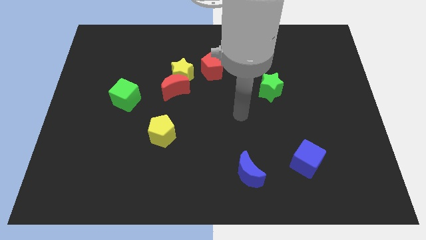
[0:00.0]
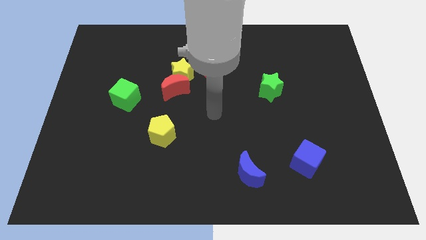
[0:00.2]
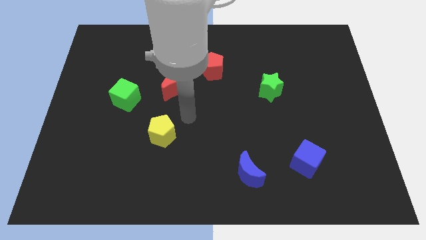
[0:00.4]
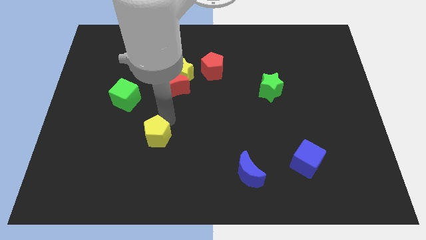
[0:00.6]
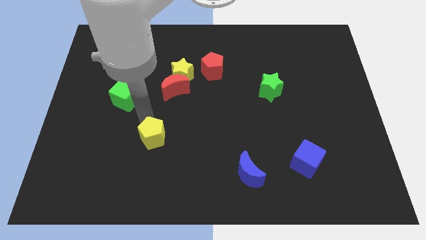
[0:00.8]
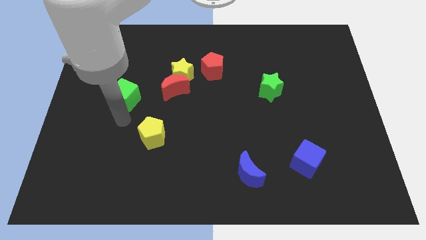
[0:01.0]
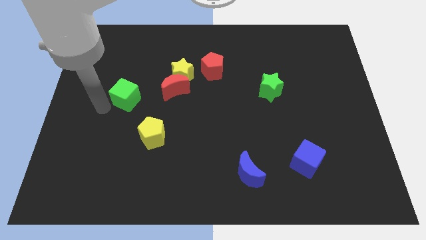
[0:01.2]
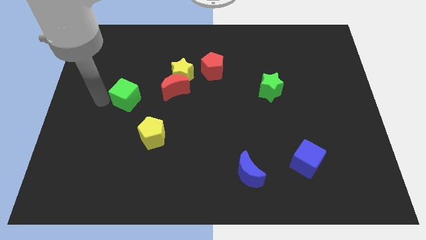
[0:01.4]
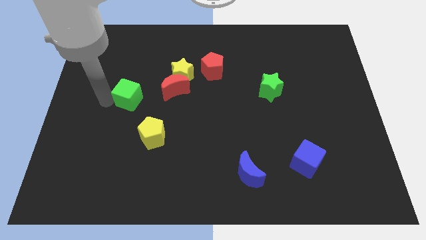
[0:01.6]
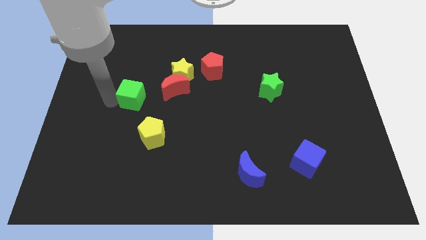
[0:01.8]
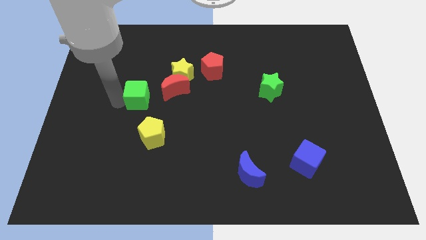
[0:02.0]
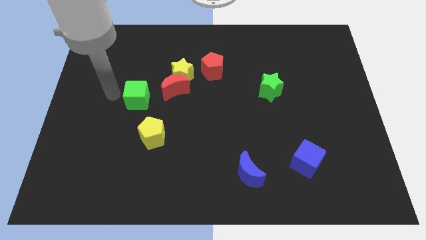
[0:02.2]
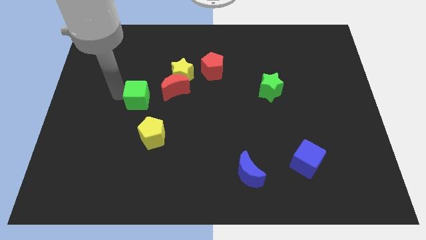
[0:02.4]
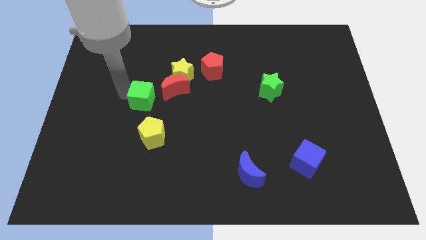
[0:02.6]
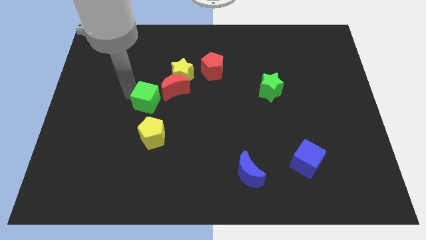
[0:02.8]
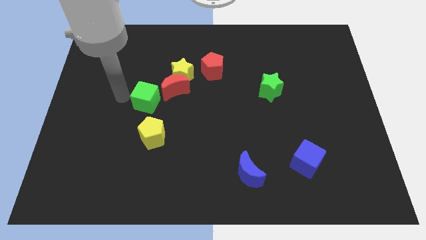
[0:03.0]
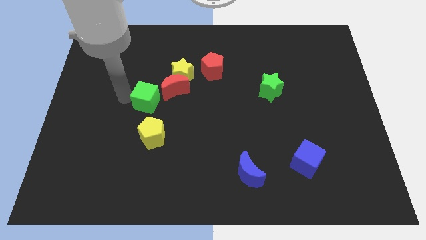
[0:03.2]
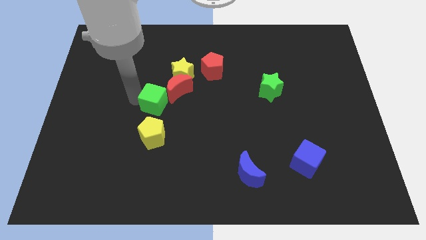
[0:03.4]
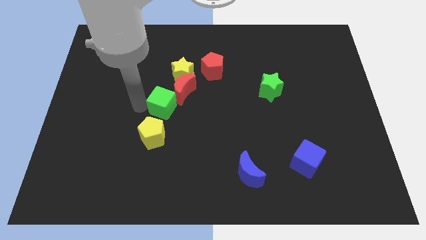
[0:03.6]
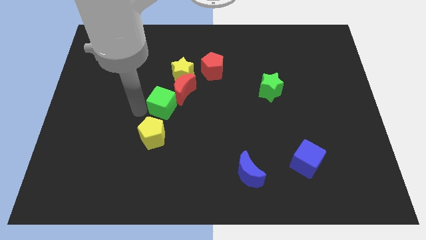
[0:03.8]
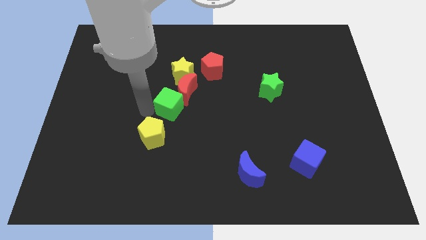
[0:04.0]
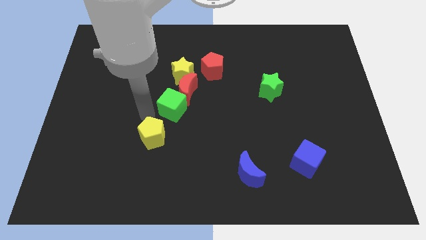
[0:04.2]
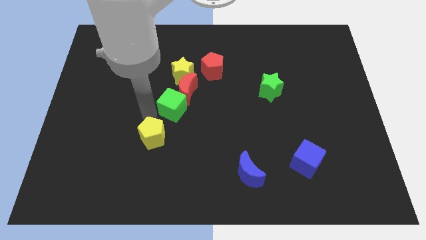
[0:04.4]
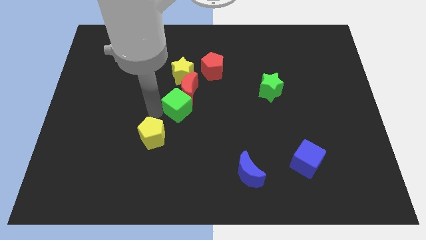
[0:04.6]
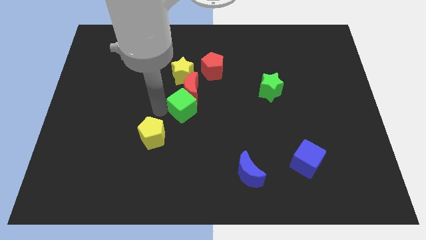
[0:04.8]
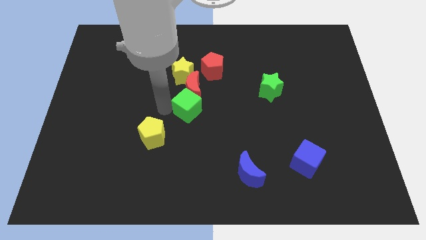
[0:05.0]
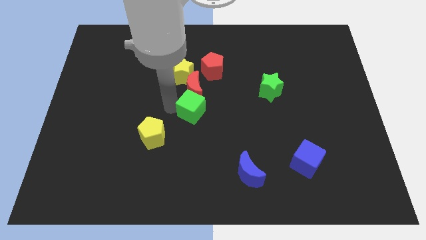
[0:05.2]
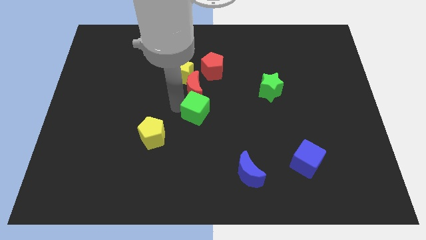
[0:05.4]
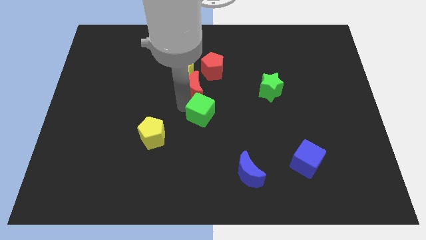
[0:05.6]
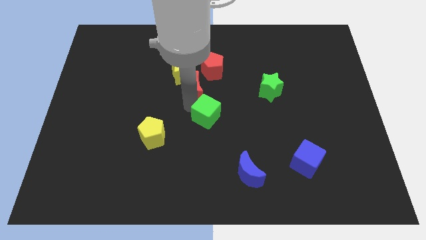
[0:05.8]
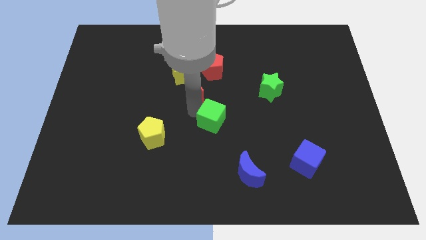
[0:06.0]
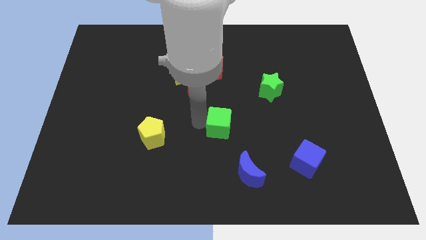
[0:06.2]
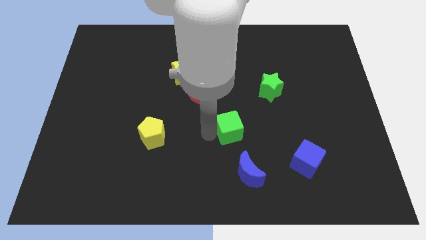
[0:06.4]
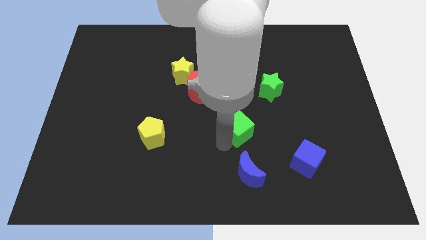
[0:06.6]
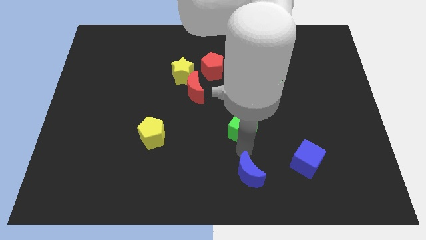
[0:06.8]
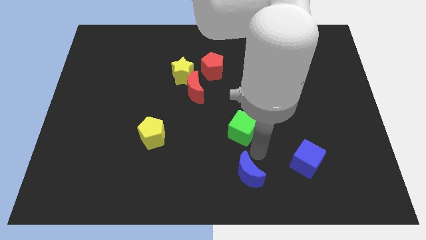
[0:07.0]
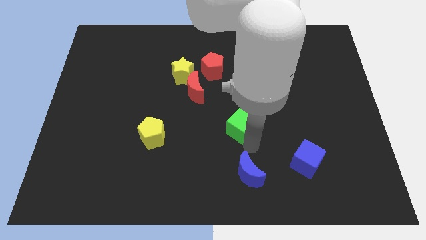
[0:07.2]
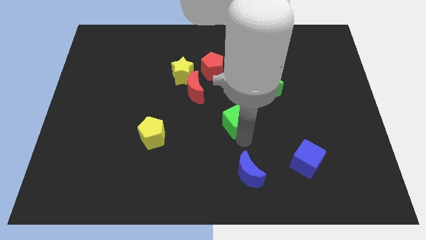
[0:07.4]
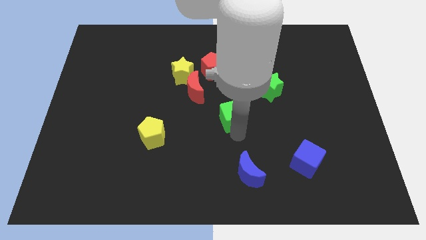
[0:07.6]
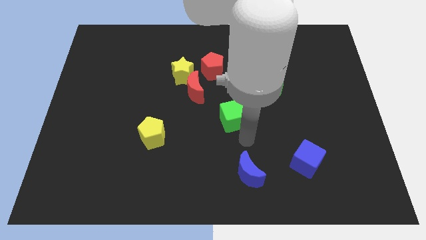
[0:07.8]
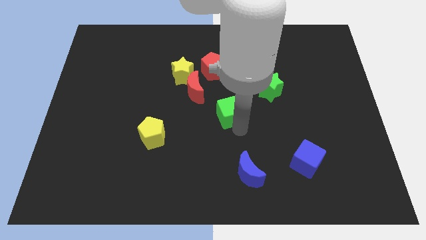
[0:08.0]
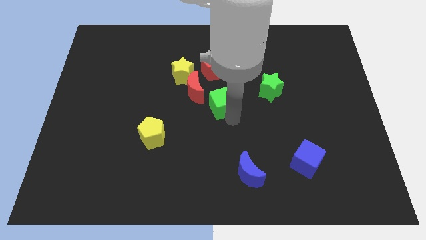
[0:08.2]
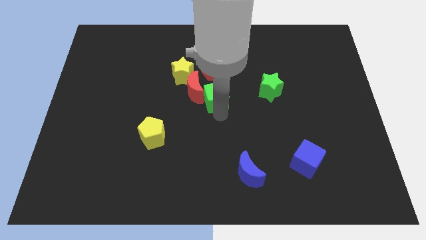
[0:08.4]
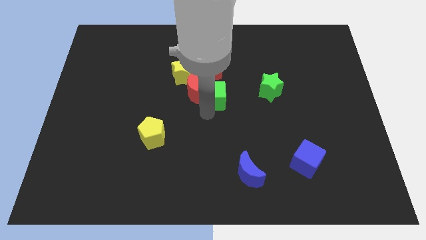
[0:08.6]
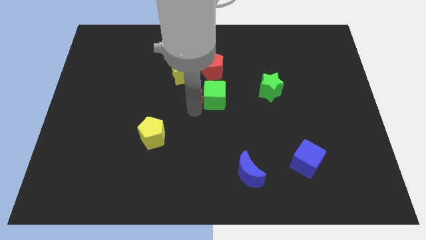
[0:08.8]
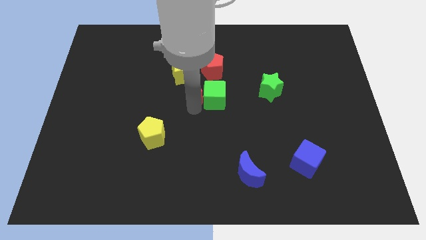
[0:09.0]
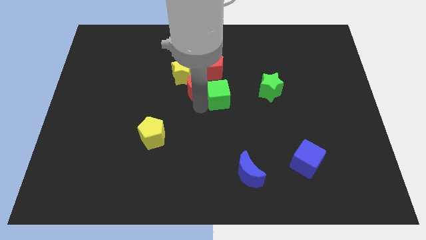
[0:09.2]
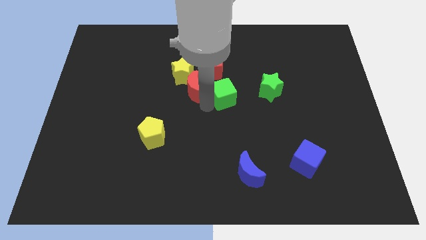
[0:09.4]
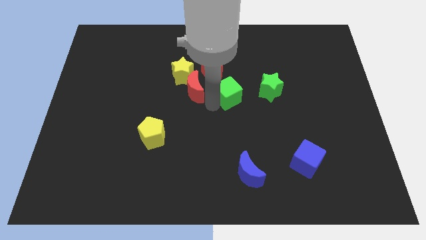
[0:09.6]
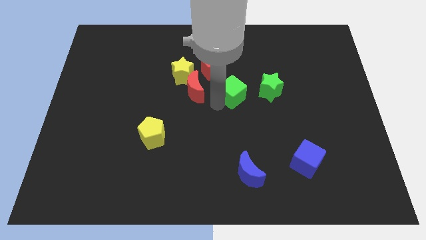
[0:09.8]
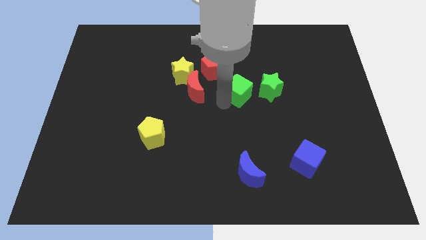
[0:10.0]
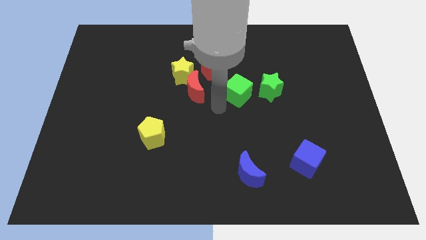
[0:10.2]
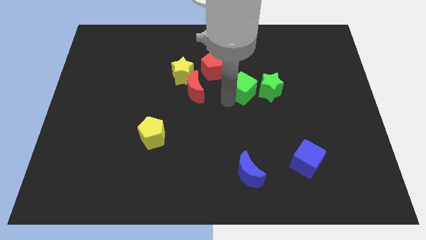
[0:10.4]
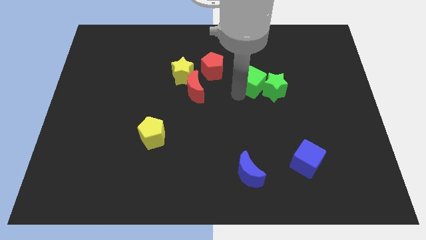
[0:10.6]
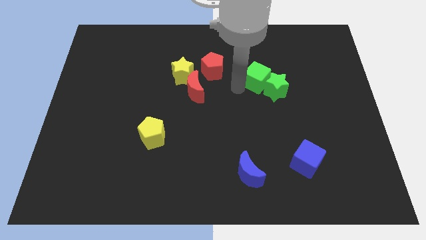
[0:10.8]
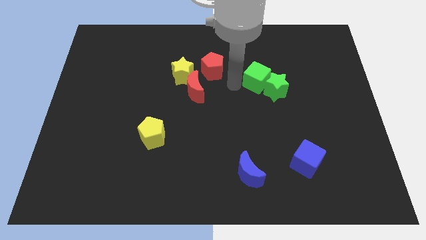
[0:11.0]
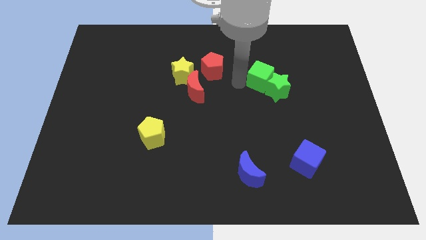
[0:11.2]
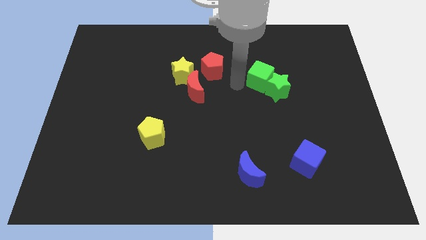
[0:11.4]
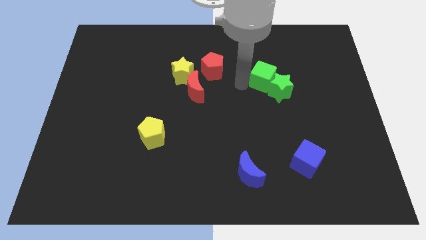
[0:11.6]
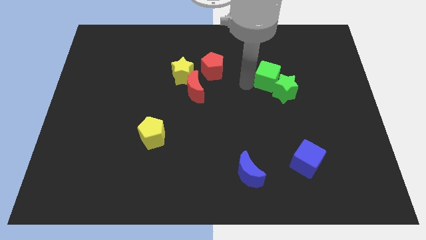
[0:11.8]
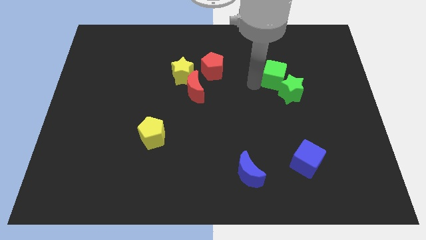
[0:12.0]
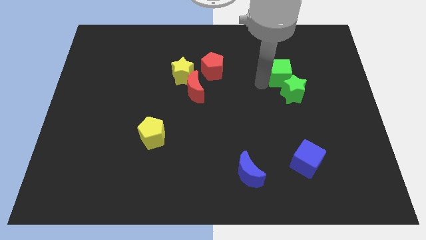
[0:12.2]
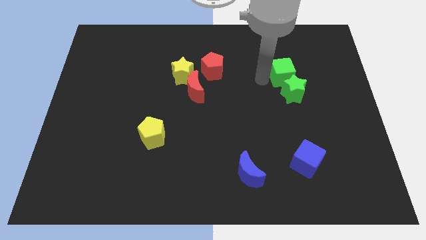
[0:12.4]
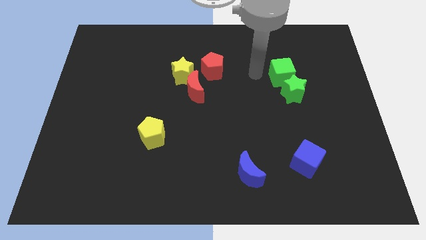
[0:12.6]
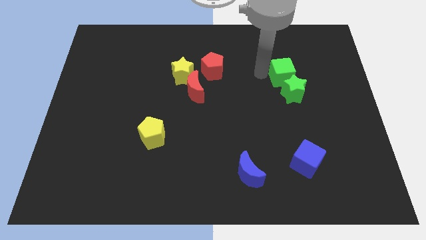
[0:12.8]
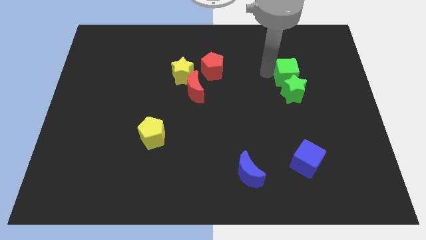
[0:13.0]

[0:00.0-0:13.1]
push the green cube to the top right of the green star

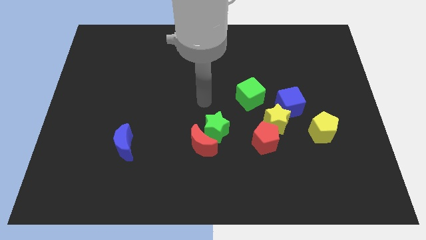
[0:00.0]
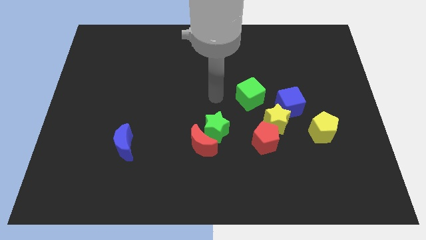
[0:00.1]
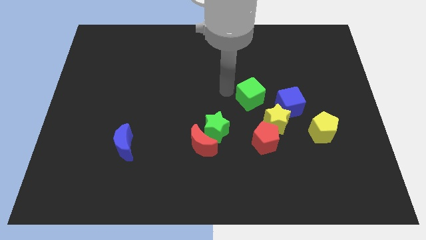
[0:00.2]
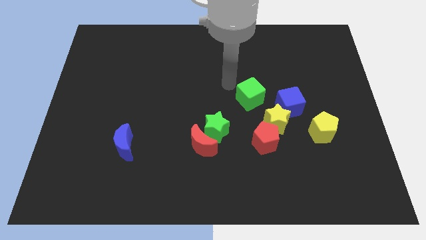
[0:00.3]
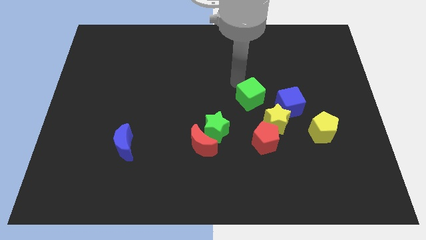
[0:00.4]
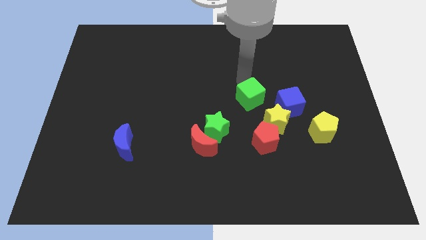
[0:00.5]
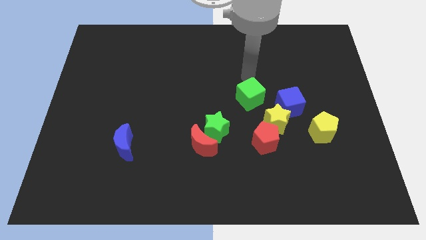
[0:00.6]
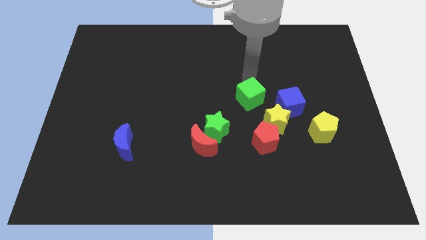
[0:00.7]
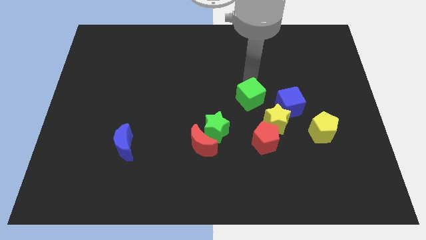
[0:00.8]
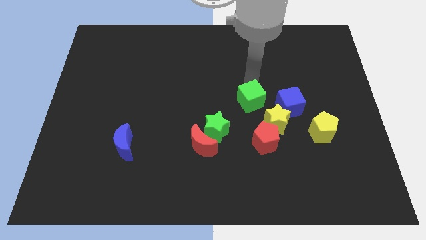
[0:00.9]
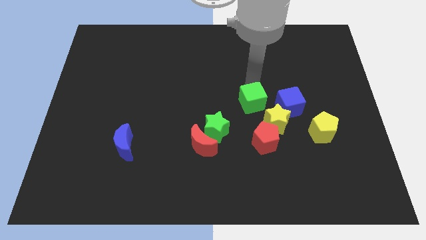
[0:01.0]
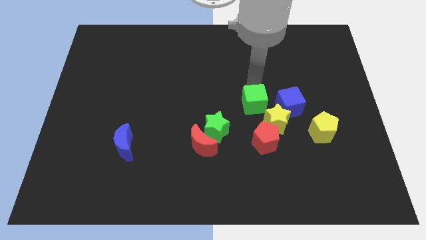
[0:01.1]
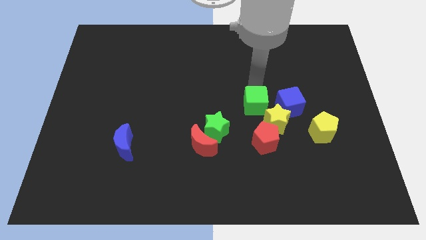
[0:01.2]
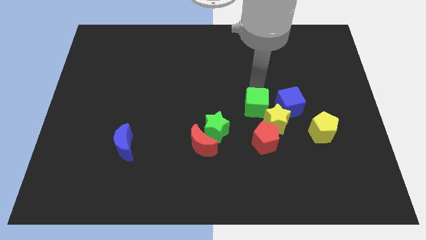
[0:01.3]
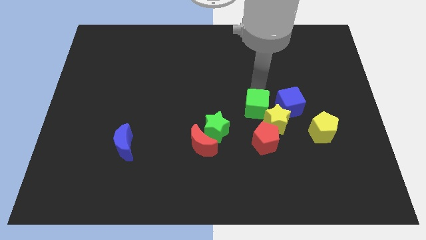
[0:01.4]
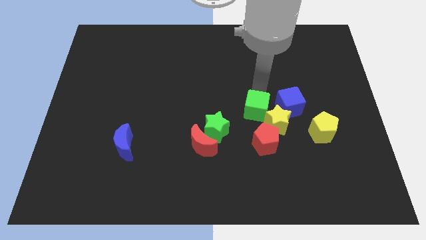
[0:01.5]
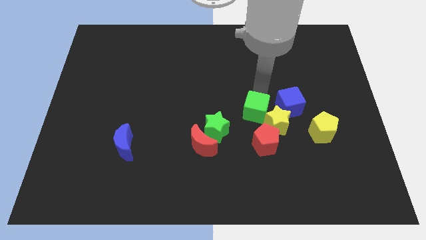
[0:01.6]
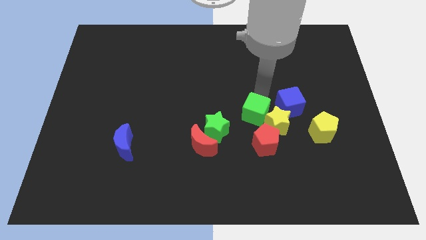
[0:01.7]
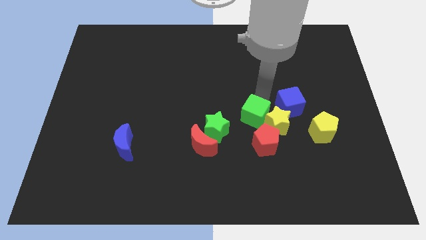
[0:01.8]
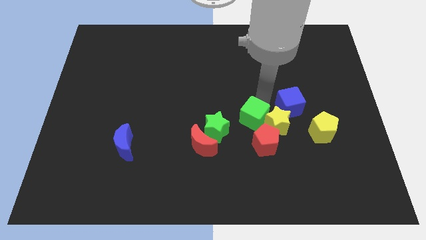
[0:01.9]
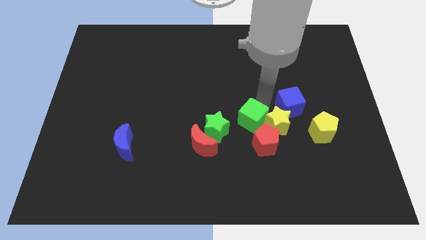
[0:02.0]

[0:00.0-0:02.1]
slide the green cube to the left side of the yellow pentagon
